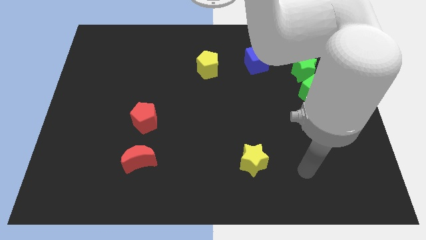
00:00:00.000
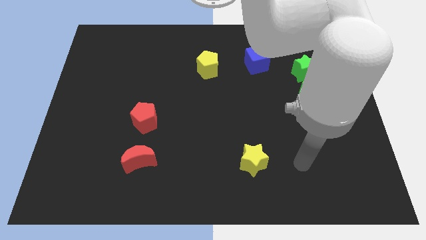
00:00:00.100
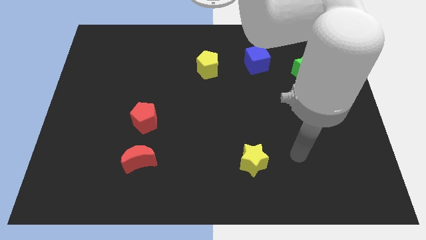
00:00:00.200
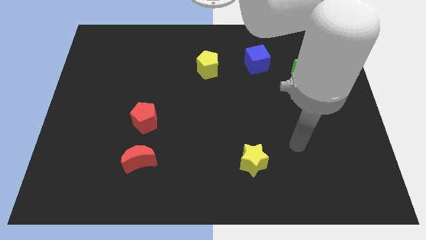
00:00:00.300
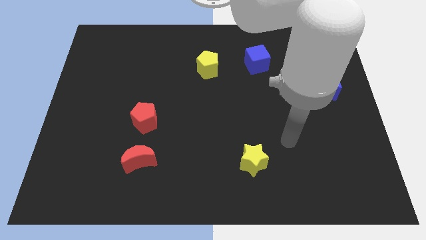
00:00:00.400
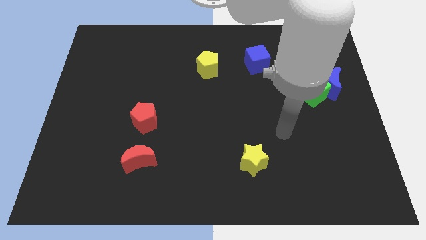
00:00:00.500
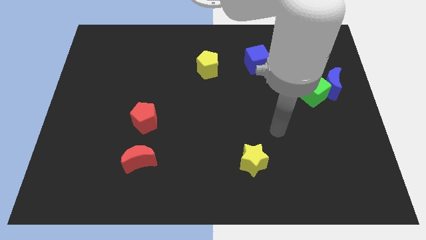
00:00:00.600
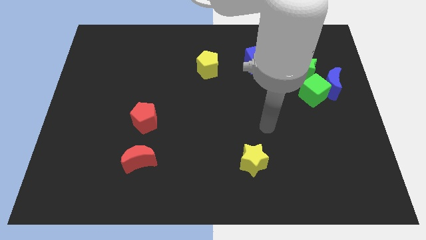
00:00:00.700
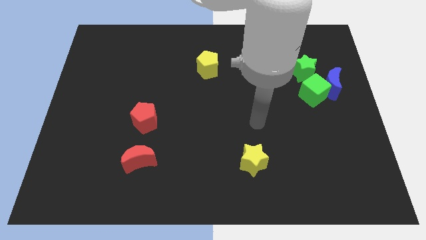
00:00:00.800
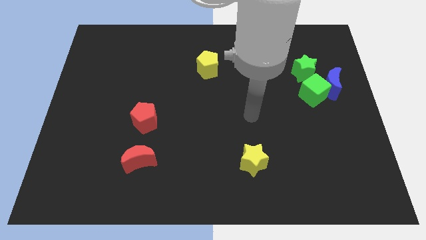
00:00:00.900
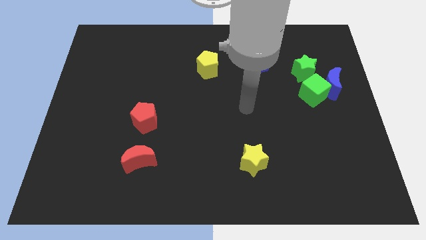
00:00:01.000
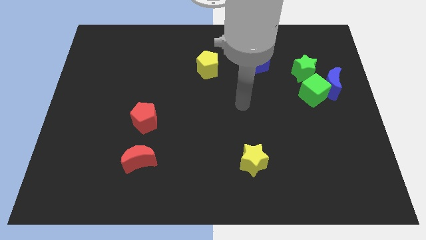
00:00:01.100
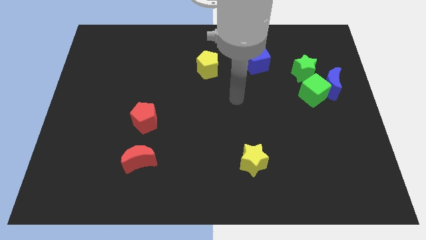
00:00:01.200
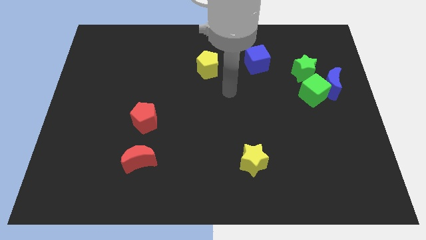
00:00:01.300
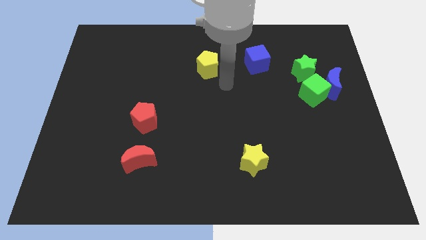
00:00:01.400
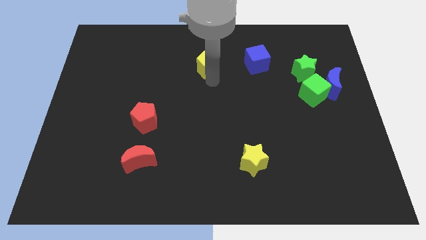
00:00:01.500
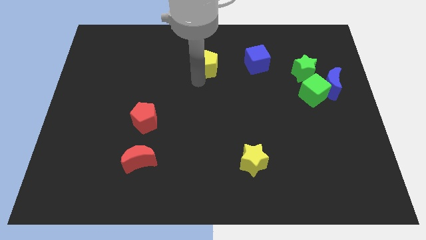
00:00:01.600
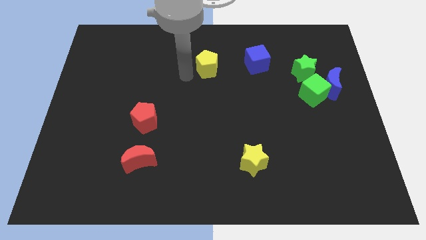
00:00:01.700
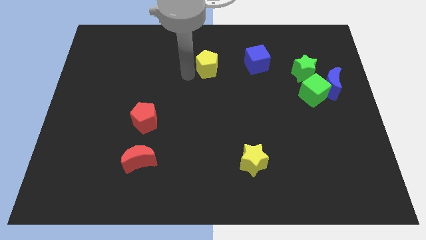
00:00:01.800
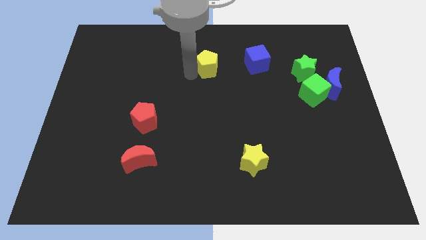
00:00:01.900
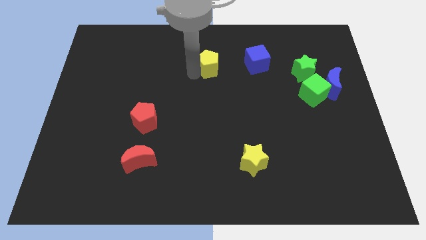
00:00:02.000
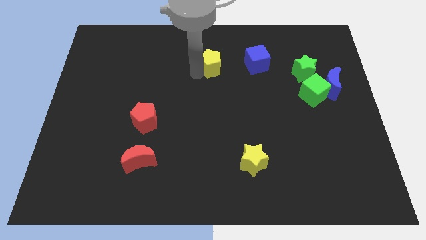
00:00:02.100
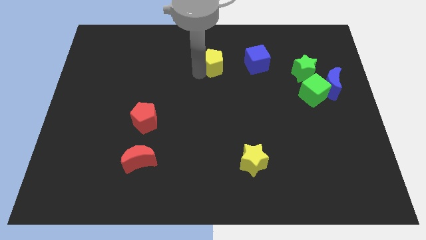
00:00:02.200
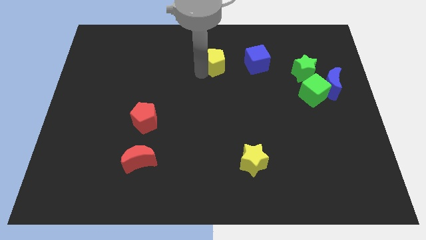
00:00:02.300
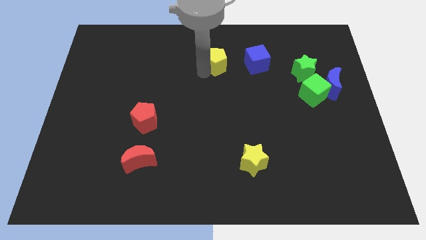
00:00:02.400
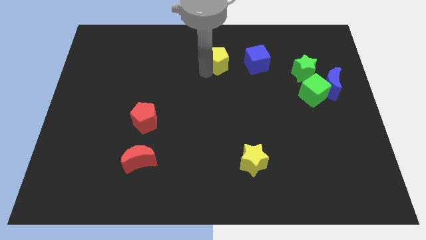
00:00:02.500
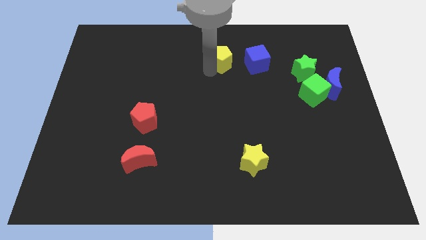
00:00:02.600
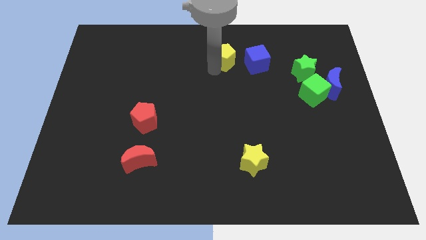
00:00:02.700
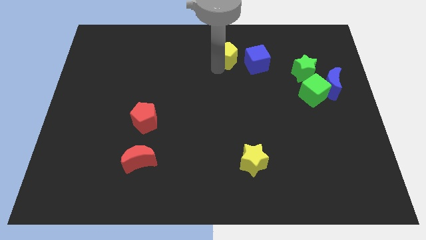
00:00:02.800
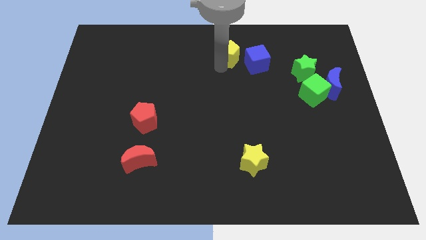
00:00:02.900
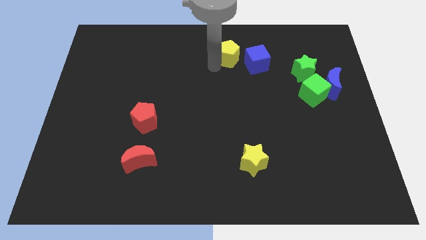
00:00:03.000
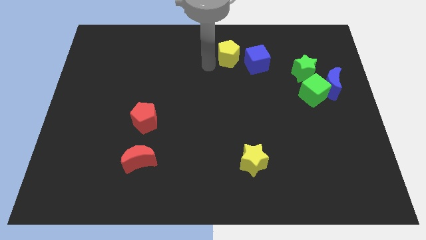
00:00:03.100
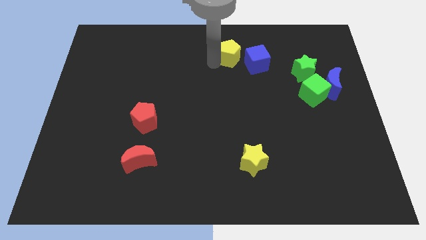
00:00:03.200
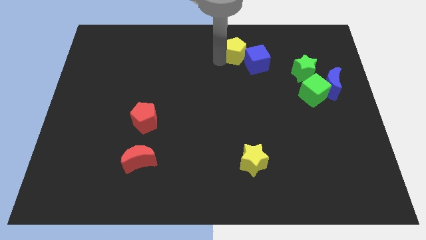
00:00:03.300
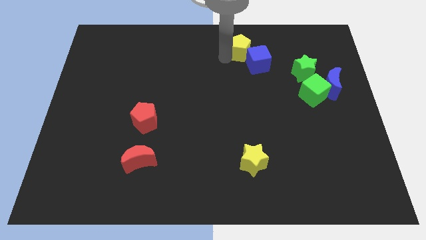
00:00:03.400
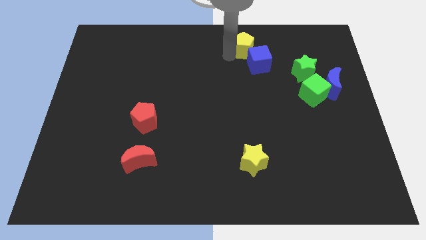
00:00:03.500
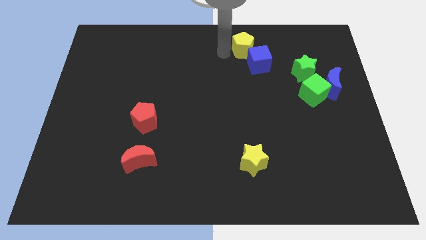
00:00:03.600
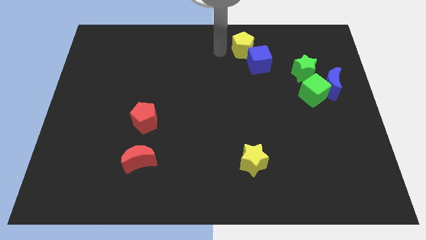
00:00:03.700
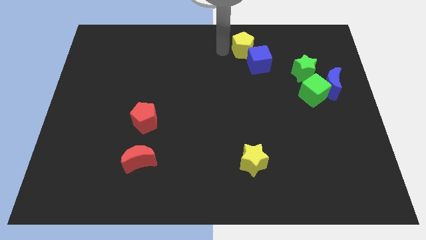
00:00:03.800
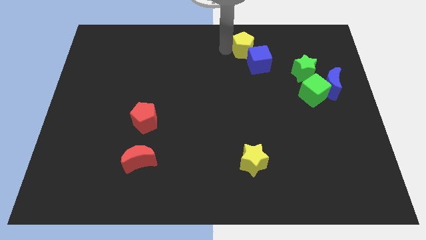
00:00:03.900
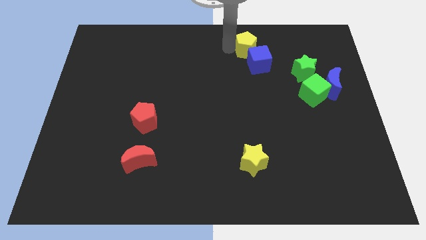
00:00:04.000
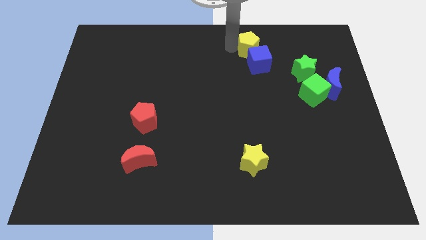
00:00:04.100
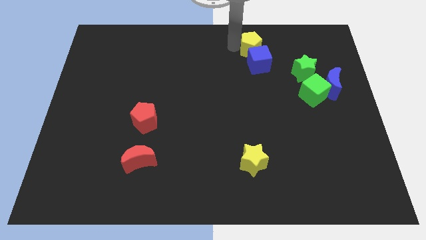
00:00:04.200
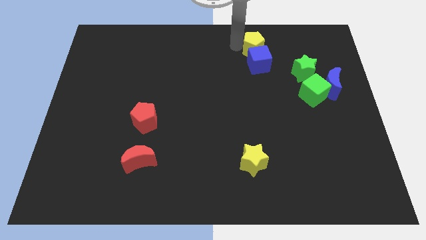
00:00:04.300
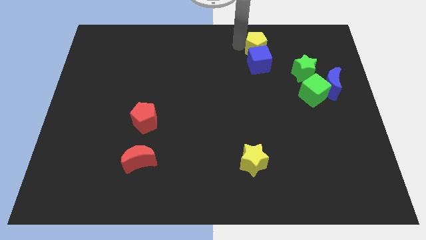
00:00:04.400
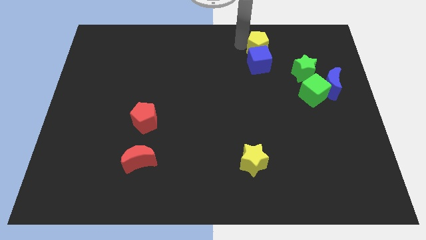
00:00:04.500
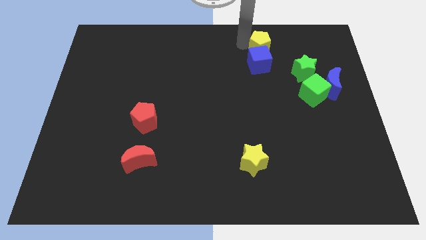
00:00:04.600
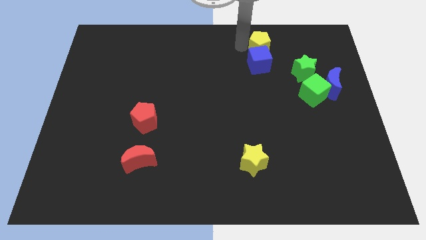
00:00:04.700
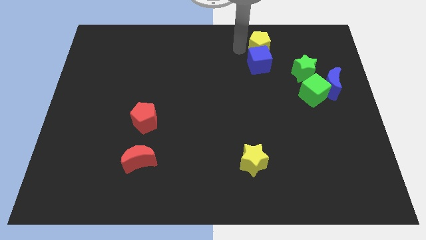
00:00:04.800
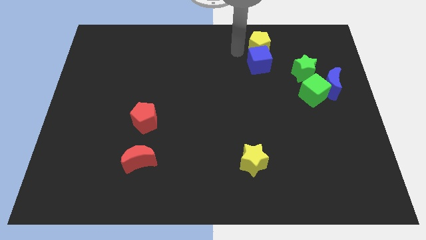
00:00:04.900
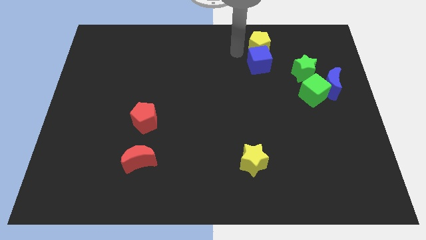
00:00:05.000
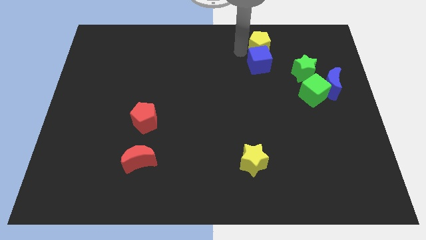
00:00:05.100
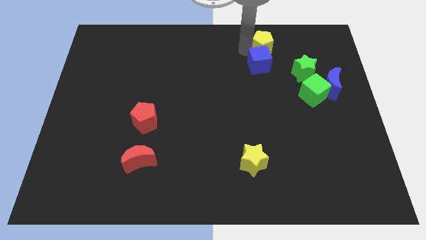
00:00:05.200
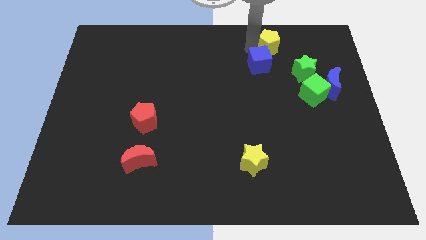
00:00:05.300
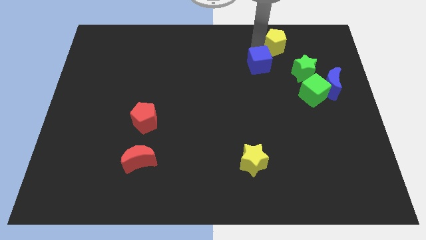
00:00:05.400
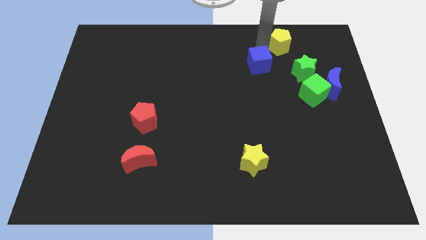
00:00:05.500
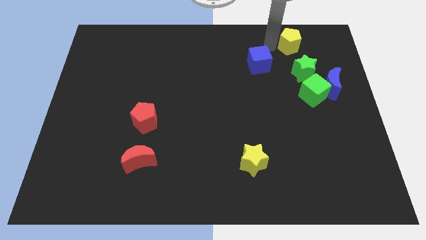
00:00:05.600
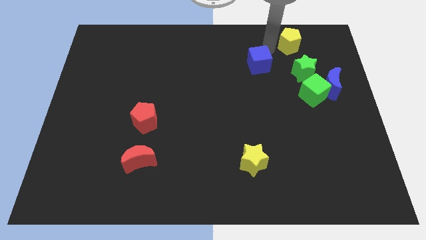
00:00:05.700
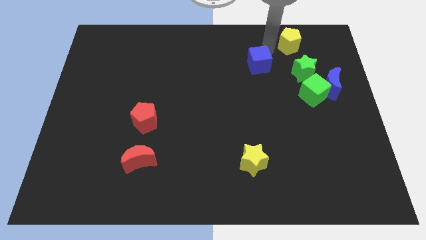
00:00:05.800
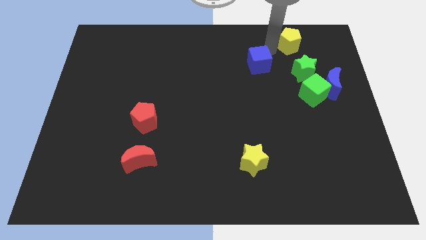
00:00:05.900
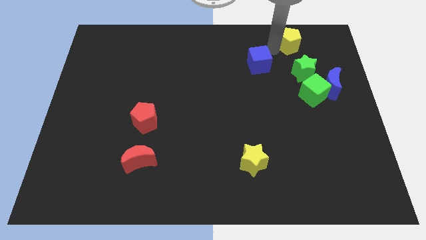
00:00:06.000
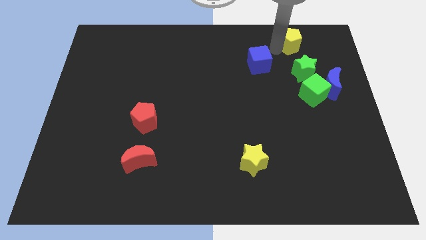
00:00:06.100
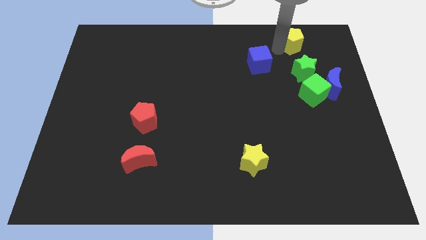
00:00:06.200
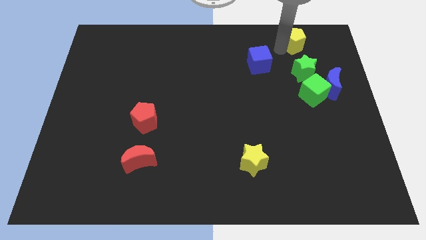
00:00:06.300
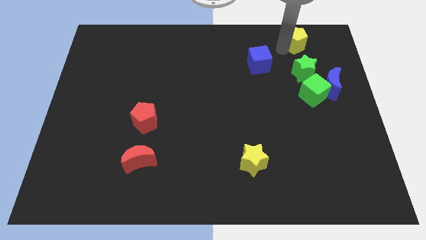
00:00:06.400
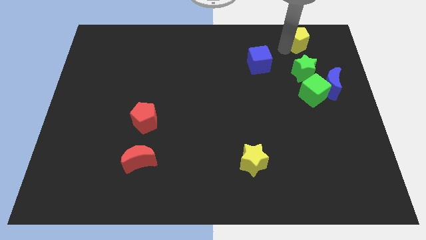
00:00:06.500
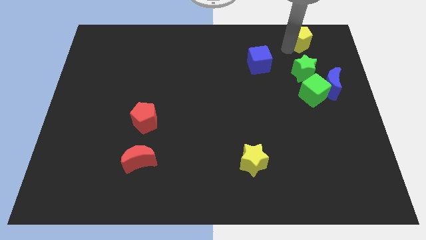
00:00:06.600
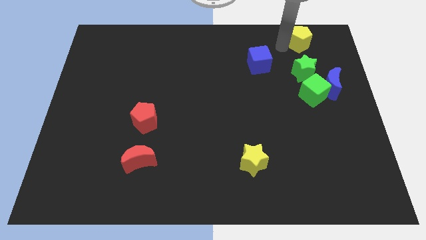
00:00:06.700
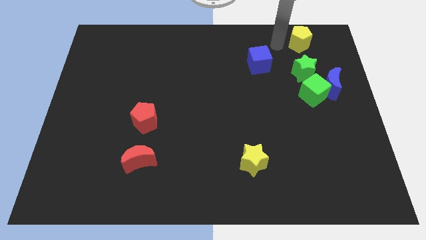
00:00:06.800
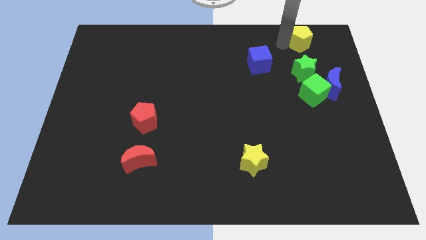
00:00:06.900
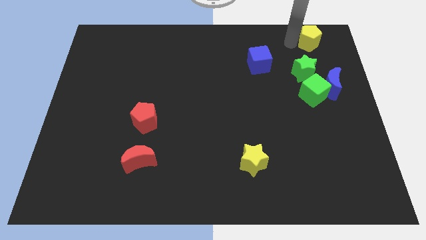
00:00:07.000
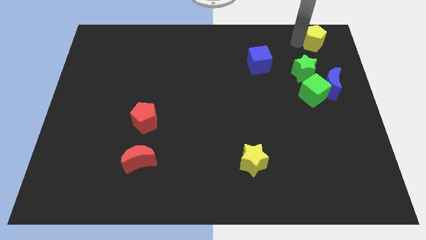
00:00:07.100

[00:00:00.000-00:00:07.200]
put the yellow pentagon to the top right corner
